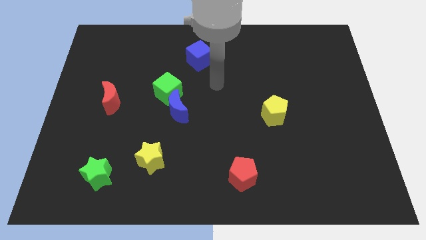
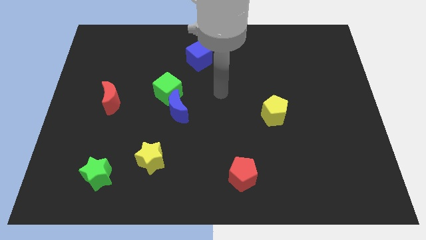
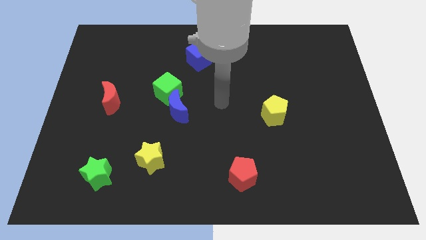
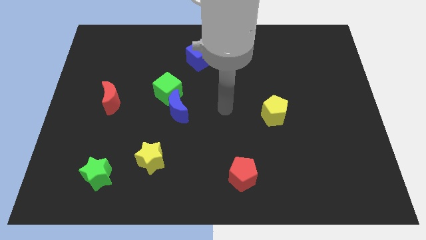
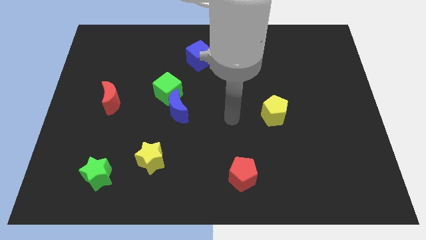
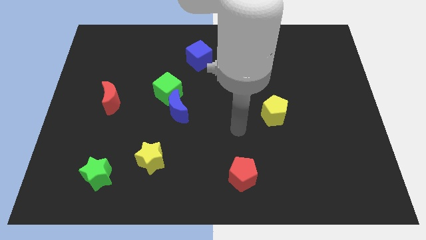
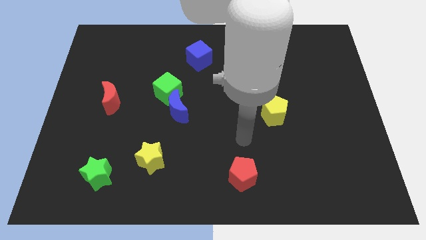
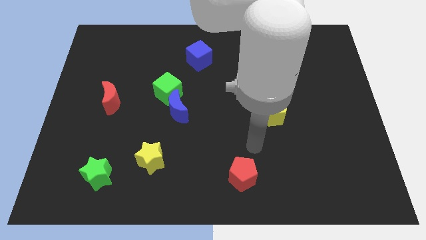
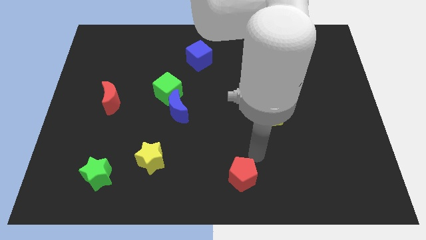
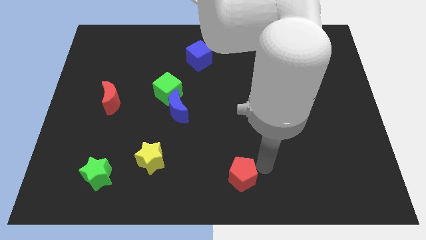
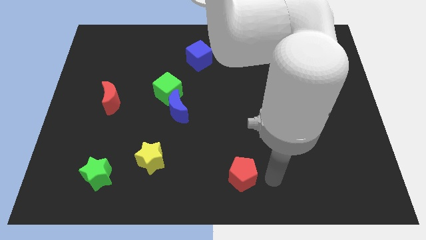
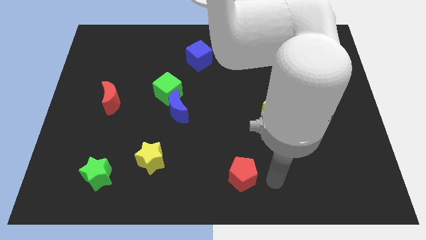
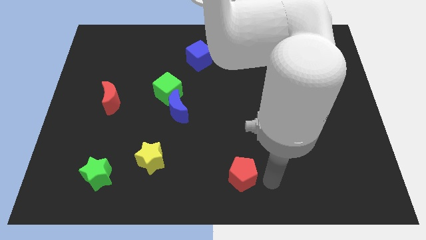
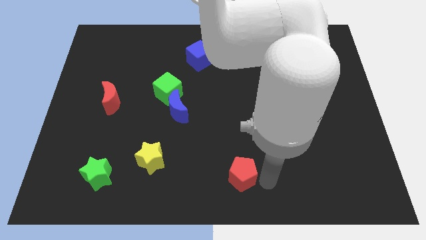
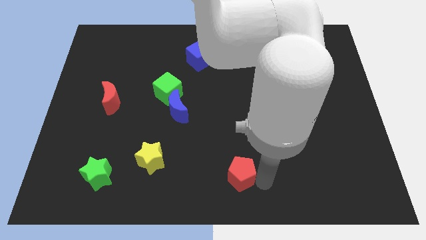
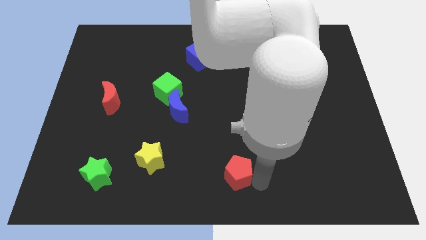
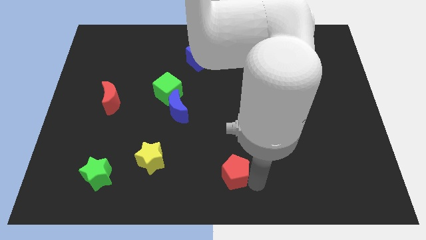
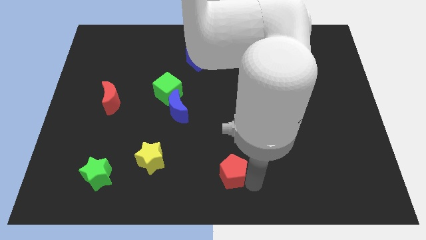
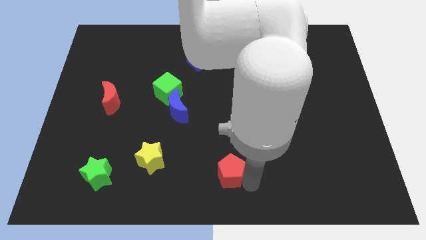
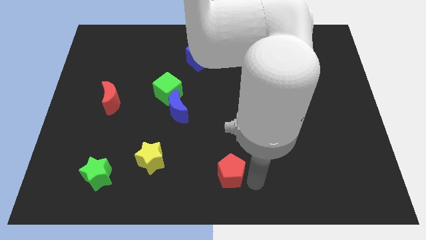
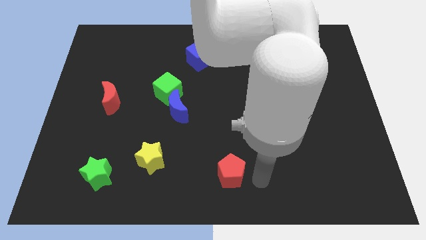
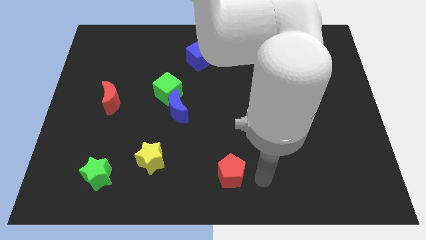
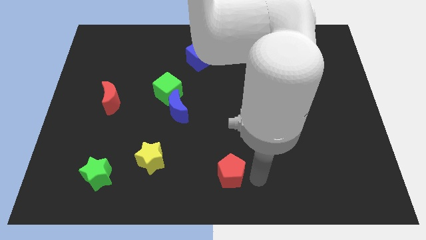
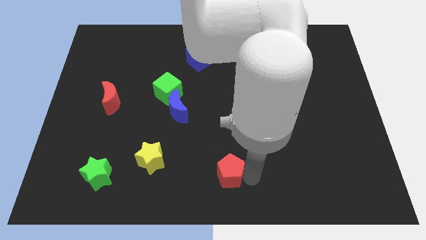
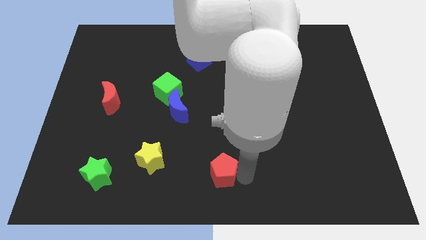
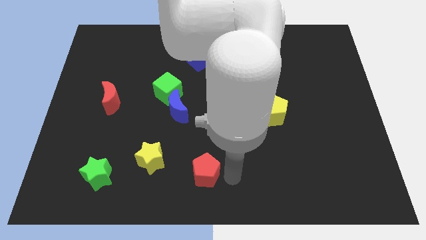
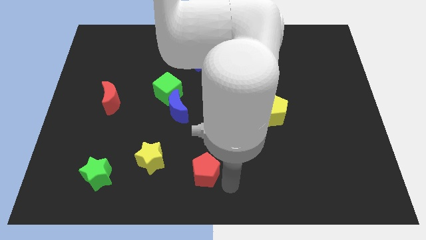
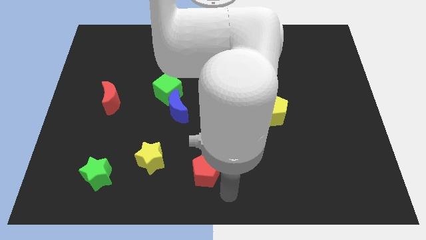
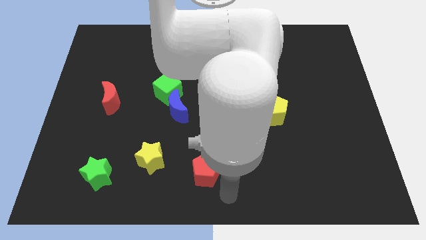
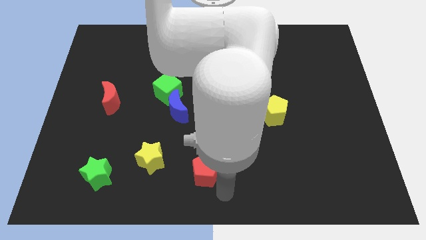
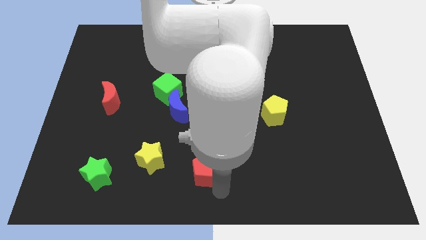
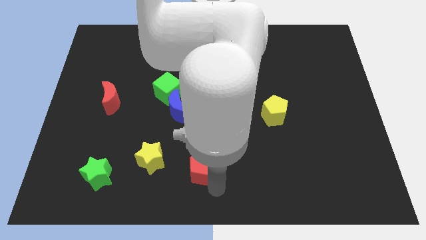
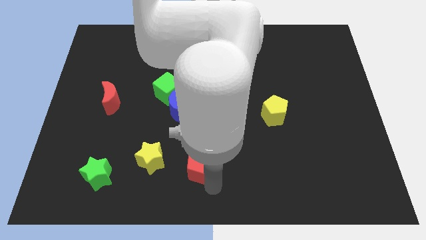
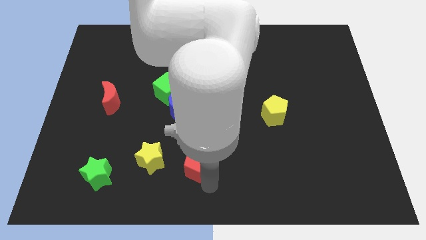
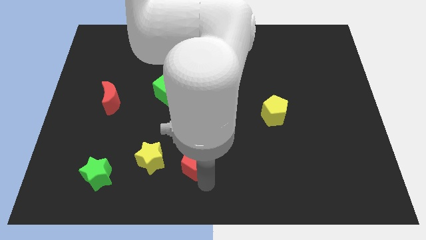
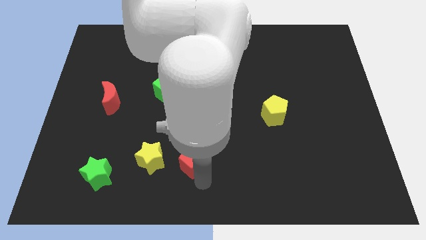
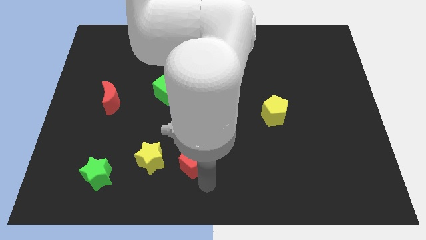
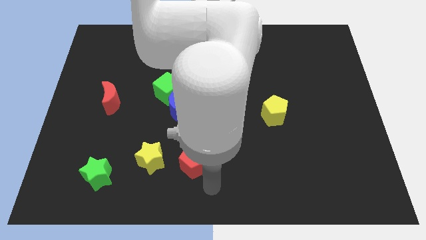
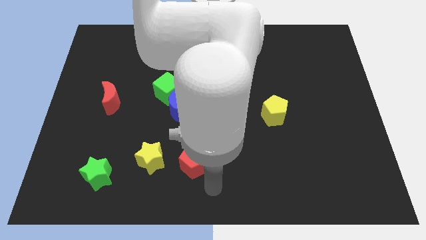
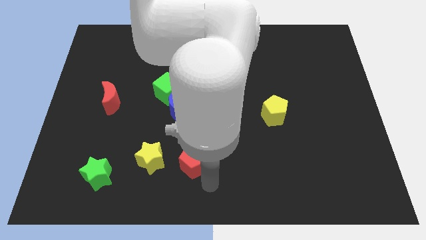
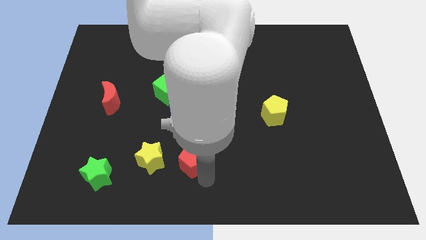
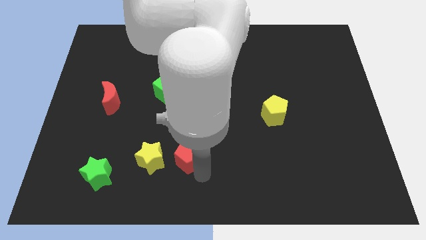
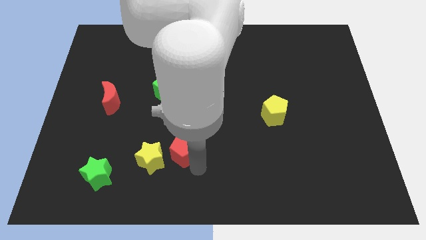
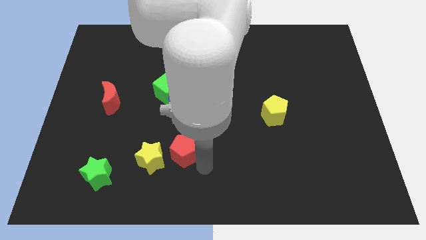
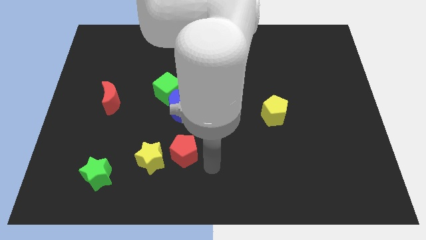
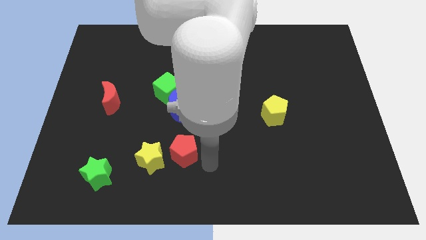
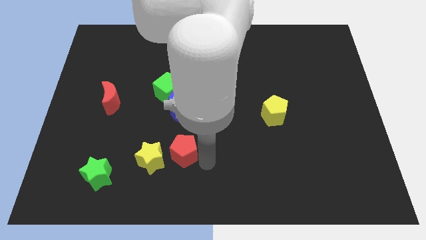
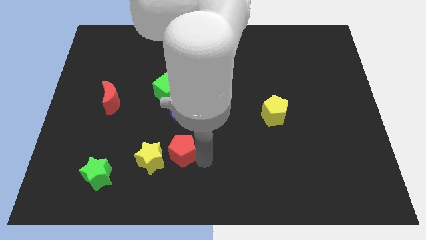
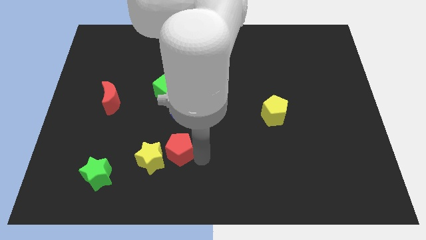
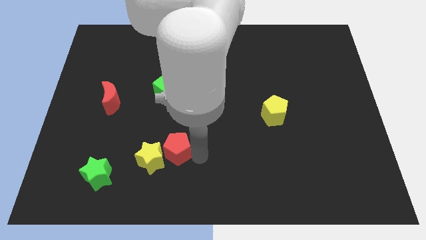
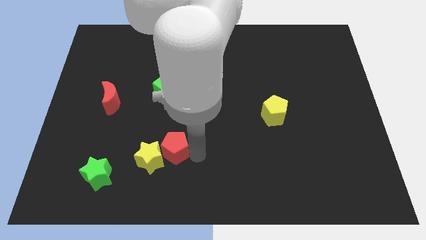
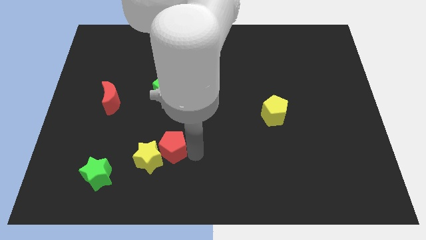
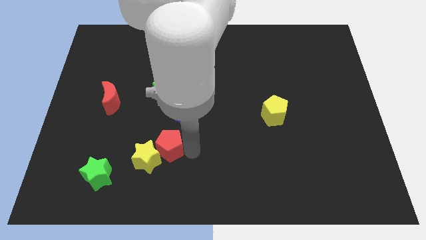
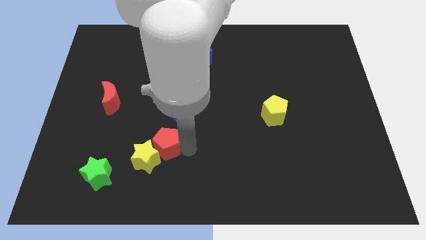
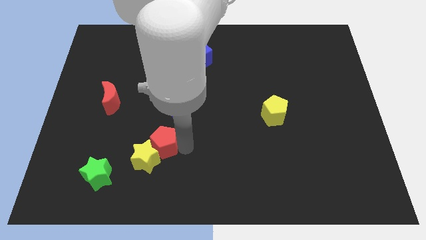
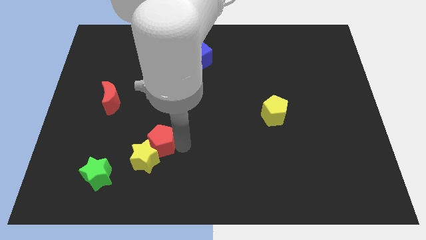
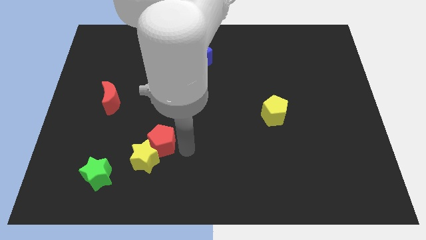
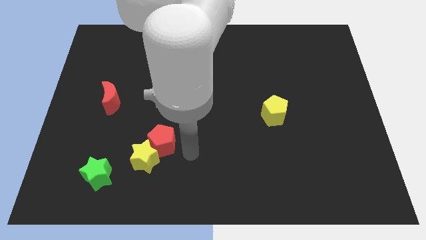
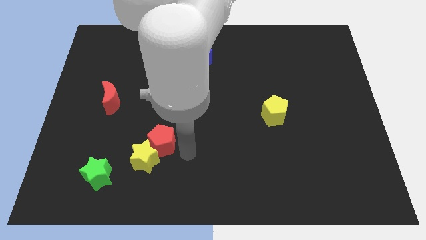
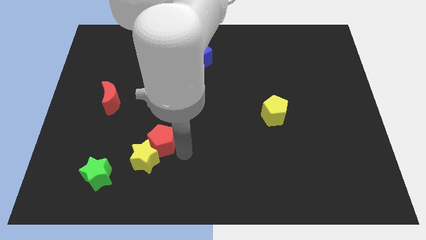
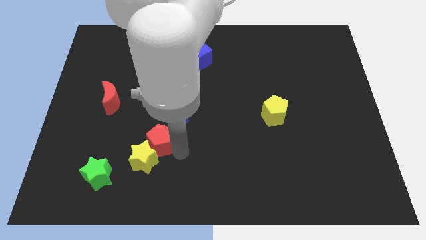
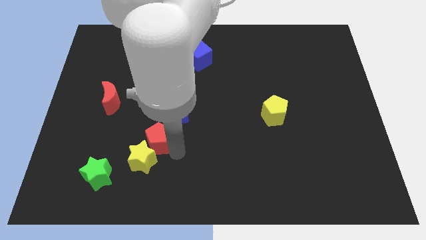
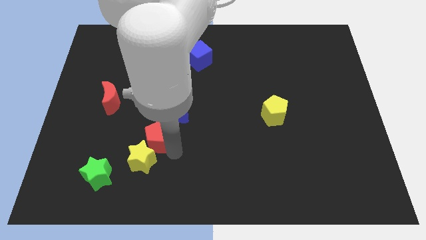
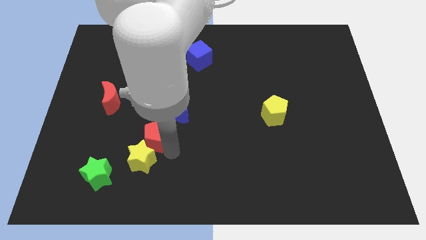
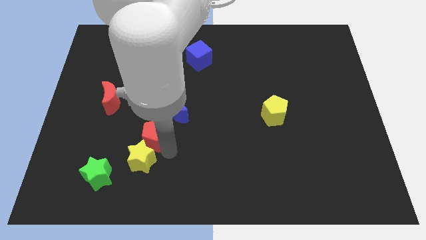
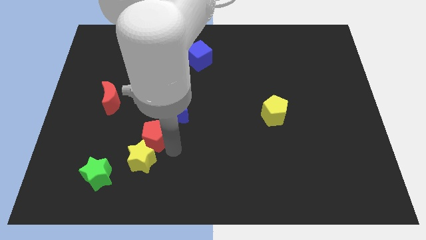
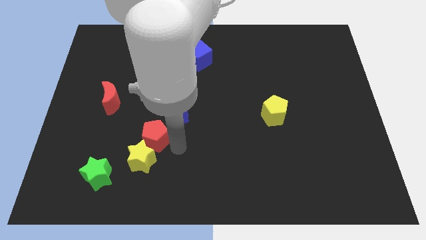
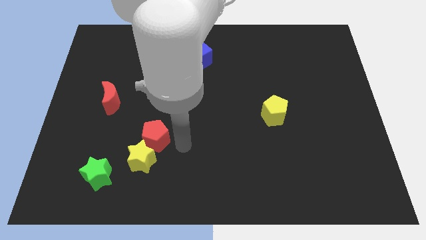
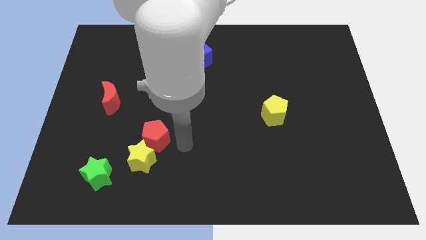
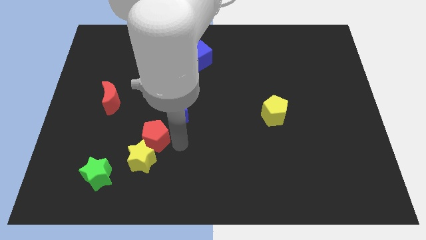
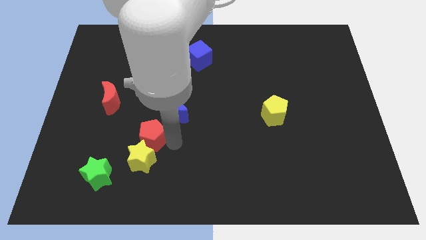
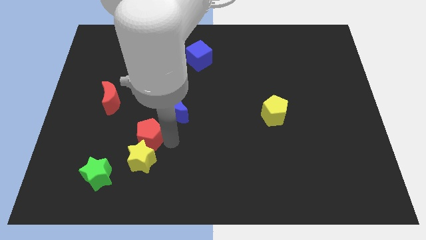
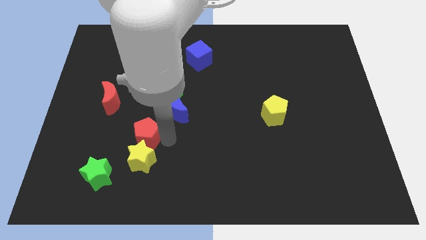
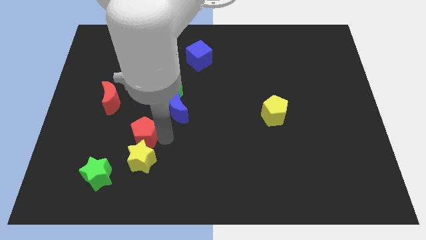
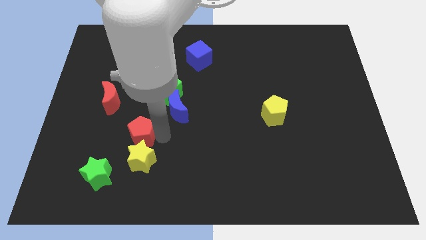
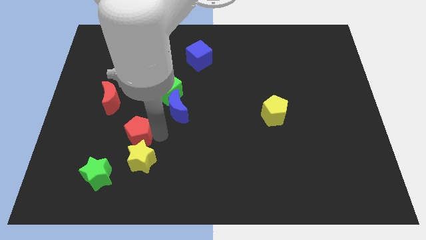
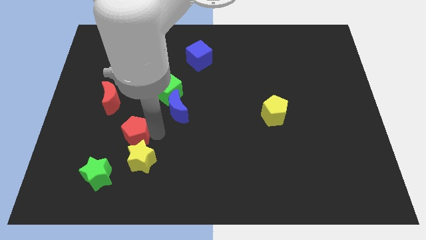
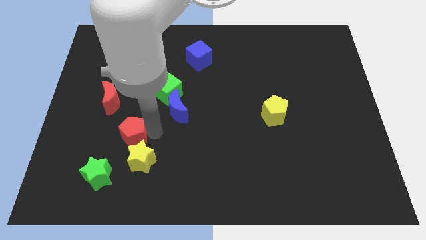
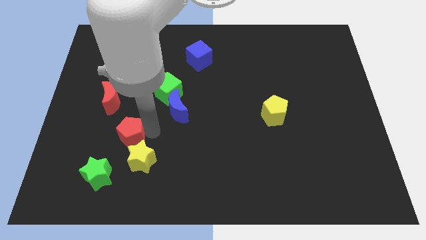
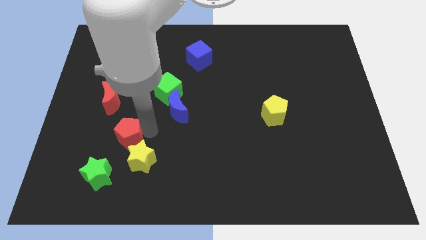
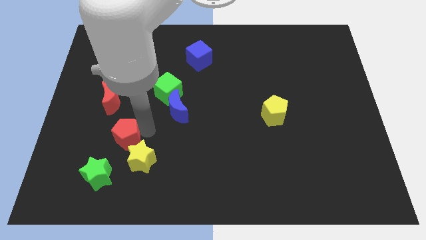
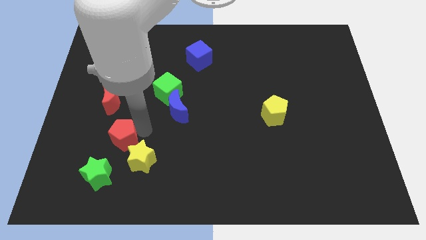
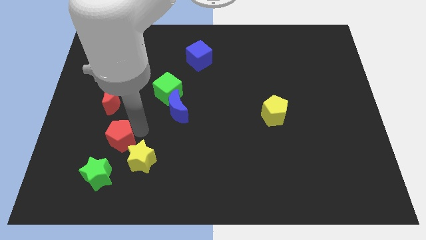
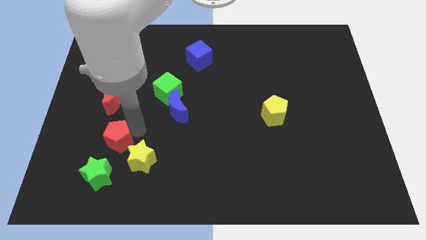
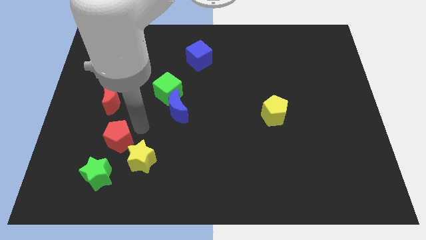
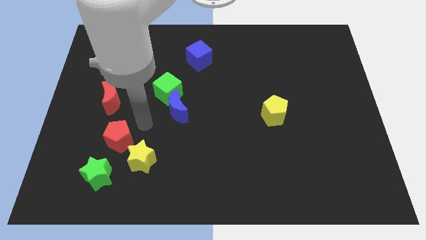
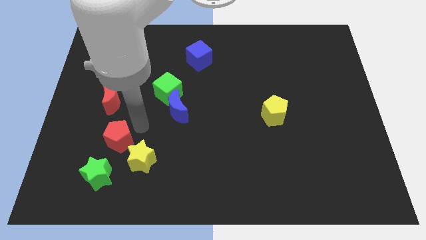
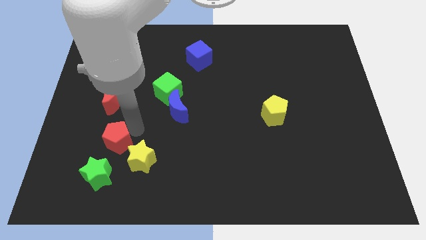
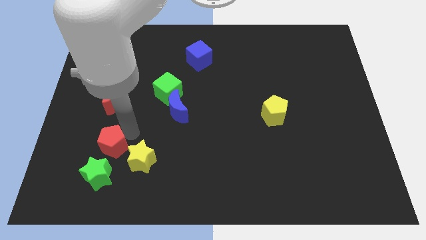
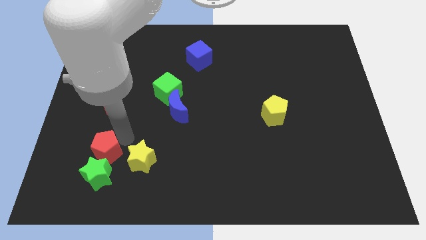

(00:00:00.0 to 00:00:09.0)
move the red pentagon to the top left side of the green star
